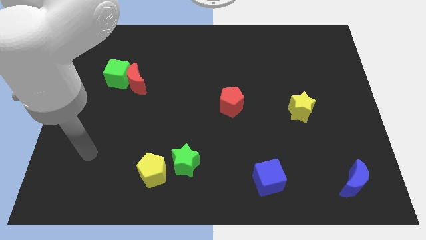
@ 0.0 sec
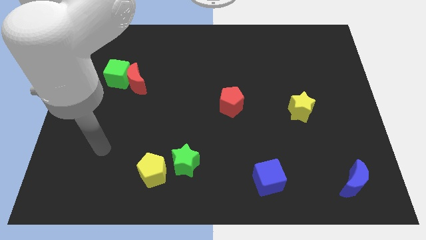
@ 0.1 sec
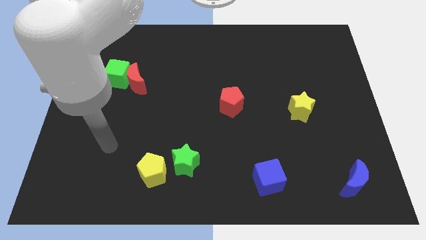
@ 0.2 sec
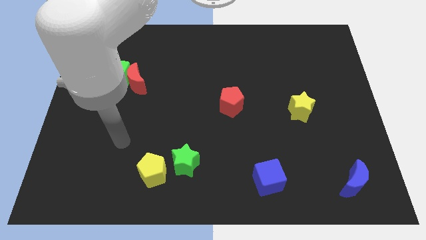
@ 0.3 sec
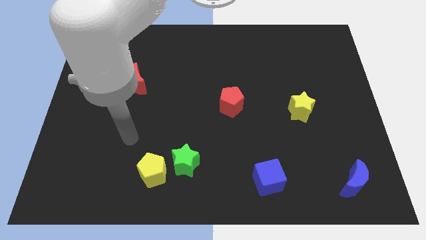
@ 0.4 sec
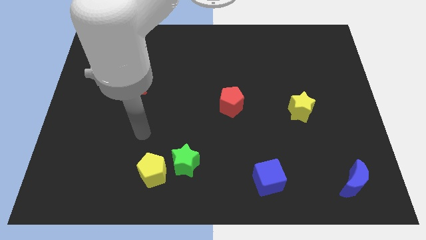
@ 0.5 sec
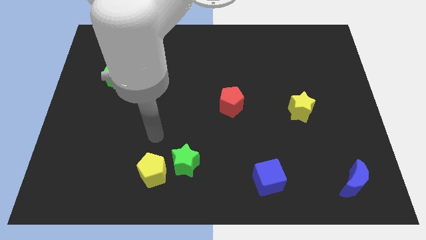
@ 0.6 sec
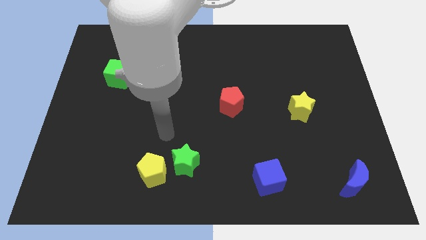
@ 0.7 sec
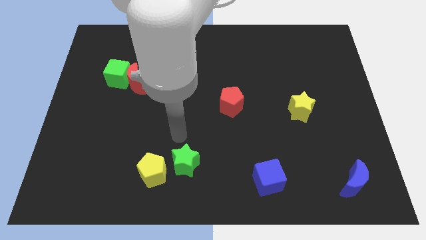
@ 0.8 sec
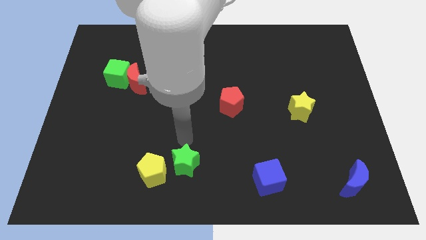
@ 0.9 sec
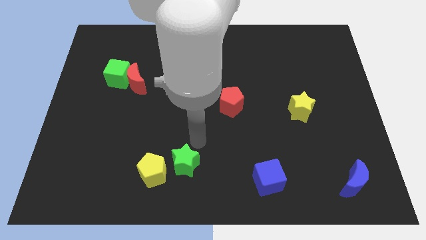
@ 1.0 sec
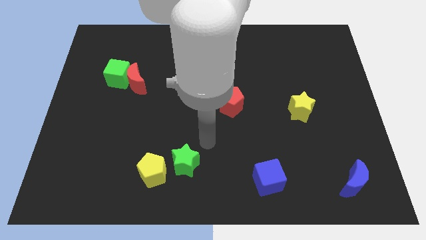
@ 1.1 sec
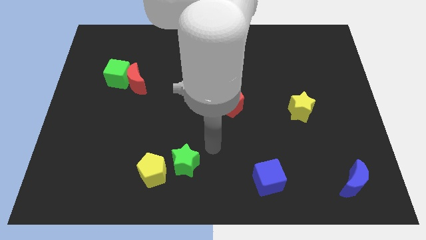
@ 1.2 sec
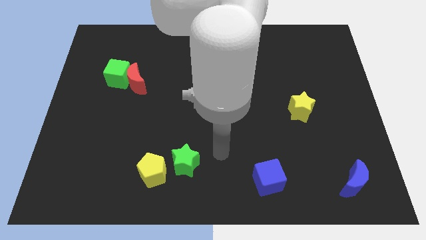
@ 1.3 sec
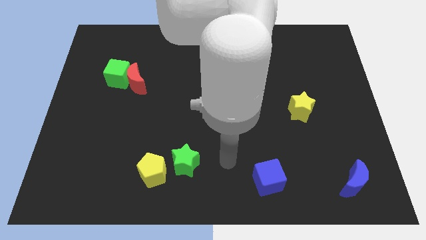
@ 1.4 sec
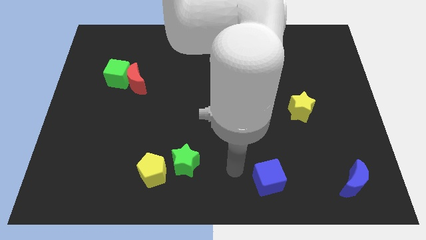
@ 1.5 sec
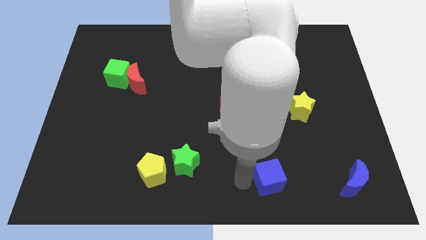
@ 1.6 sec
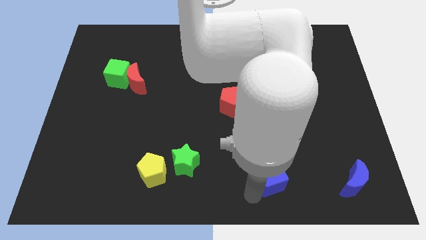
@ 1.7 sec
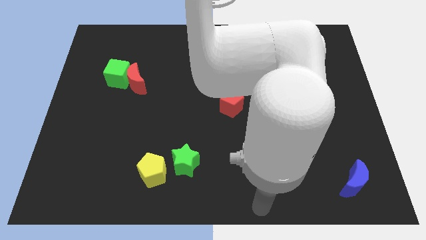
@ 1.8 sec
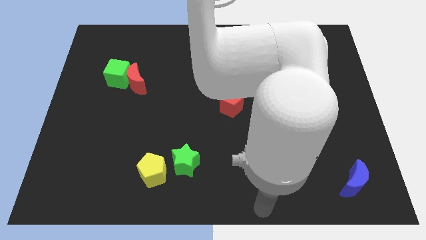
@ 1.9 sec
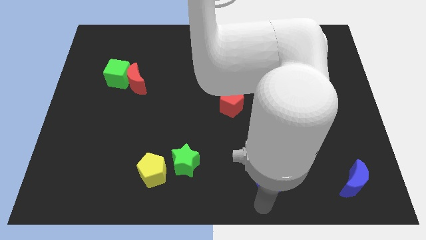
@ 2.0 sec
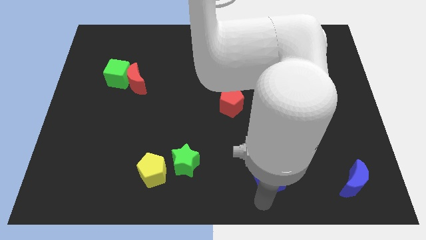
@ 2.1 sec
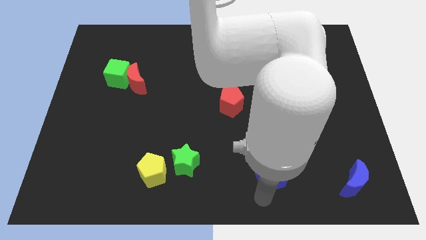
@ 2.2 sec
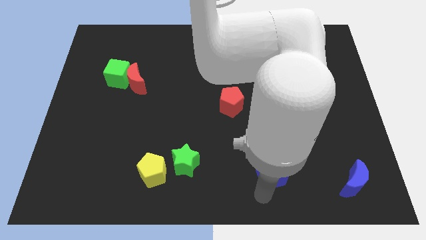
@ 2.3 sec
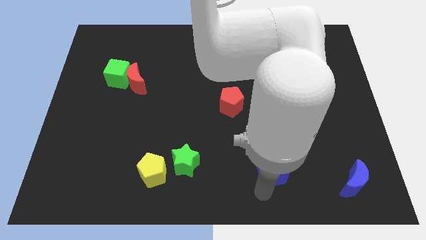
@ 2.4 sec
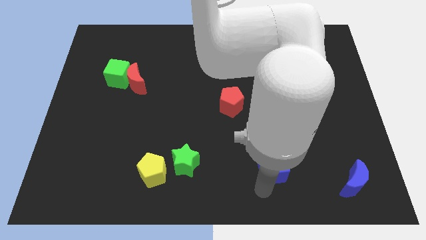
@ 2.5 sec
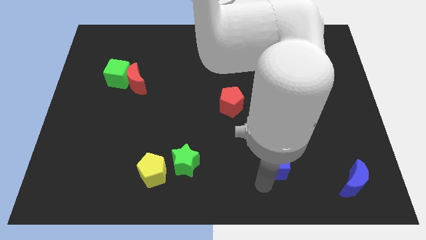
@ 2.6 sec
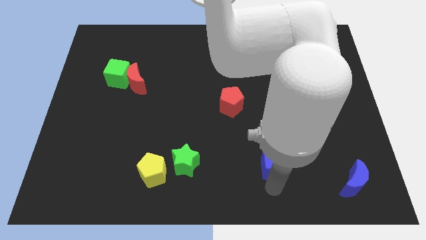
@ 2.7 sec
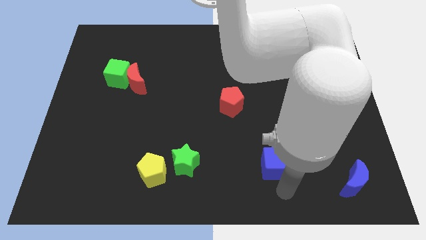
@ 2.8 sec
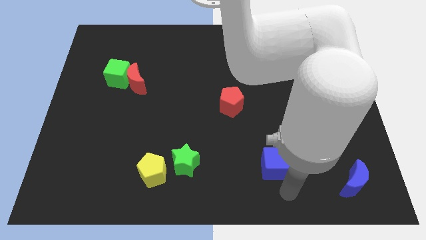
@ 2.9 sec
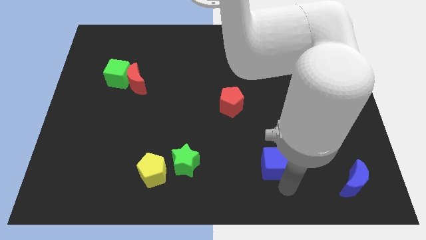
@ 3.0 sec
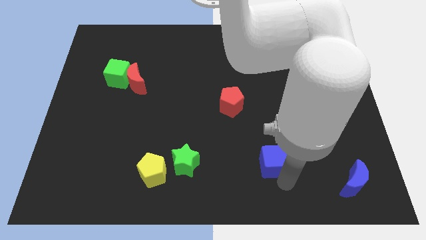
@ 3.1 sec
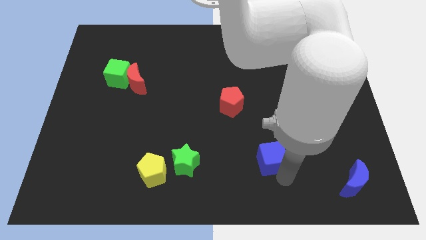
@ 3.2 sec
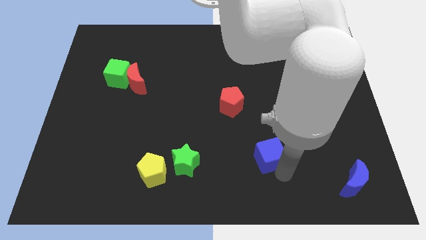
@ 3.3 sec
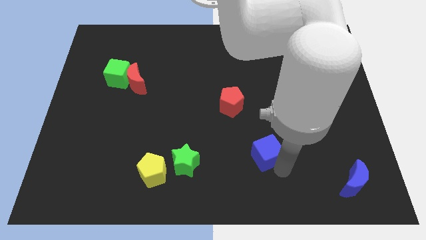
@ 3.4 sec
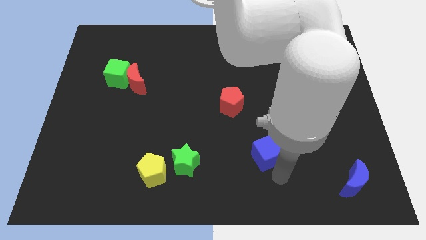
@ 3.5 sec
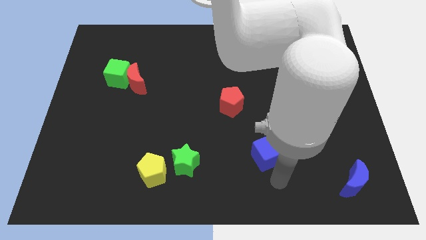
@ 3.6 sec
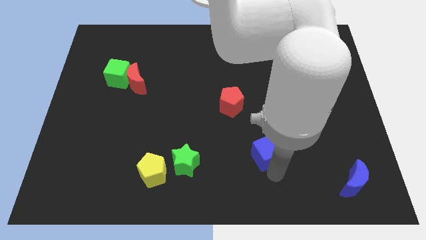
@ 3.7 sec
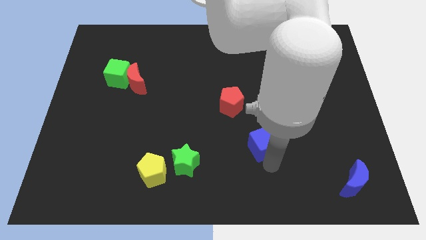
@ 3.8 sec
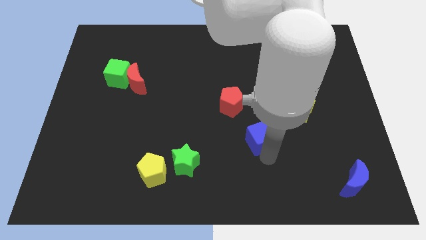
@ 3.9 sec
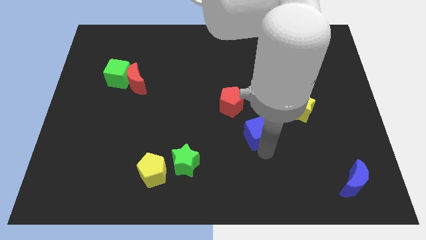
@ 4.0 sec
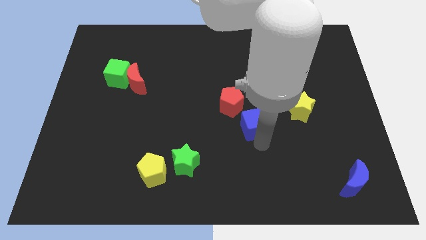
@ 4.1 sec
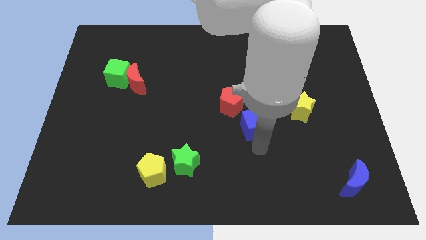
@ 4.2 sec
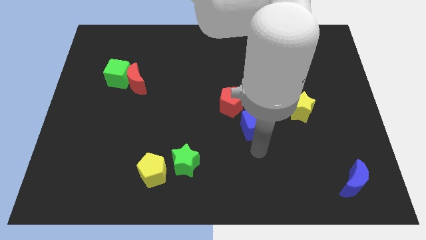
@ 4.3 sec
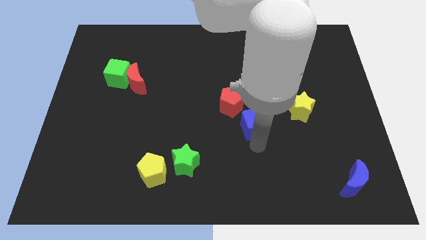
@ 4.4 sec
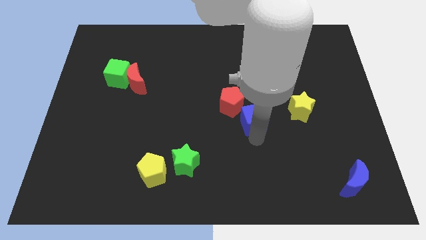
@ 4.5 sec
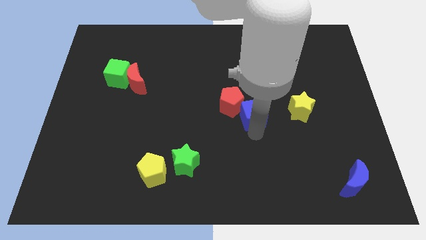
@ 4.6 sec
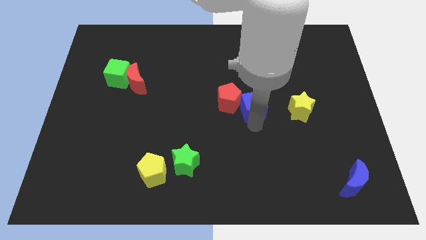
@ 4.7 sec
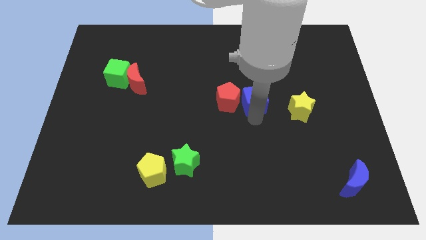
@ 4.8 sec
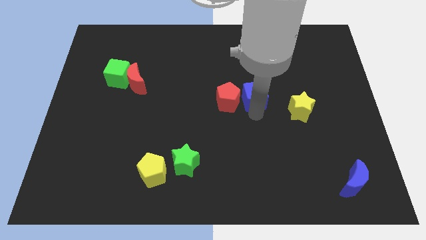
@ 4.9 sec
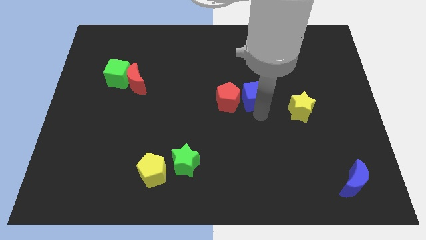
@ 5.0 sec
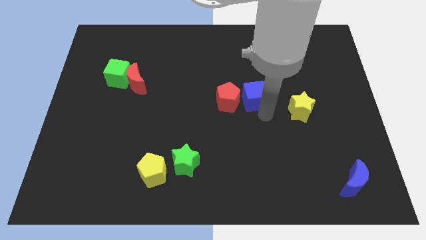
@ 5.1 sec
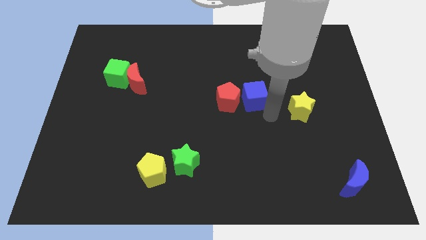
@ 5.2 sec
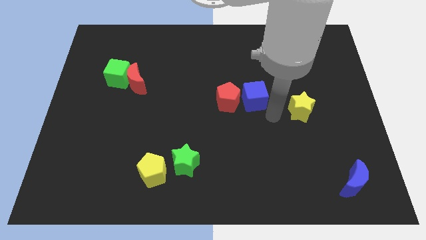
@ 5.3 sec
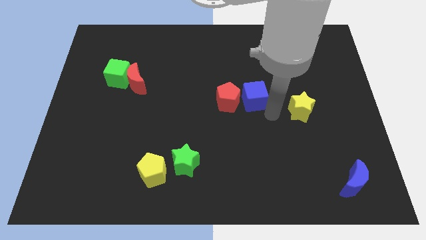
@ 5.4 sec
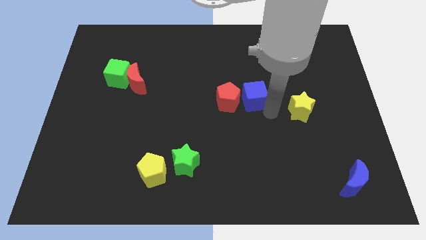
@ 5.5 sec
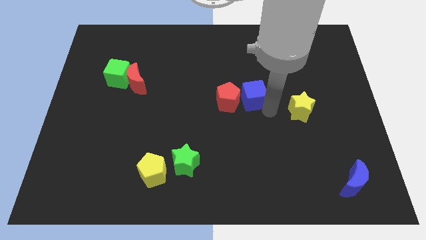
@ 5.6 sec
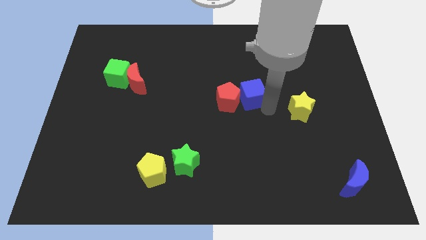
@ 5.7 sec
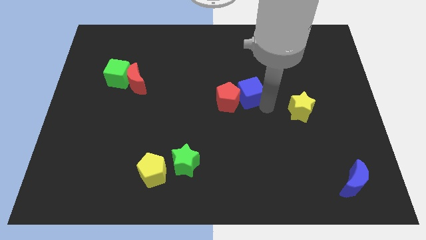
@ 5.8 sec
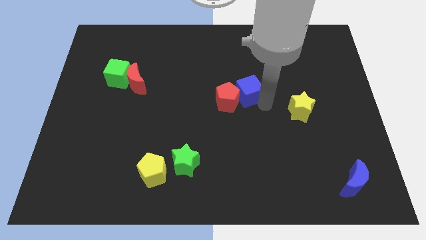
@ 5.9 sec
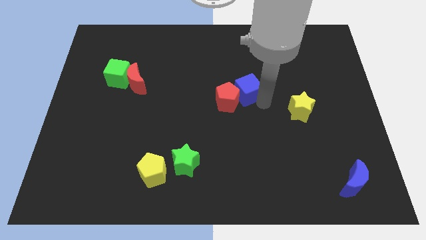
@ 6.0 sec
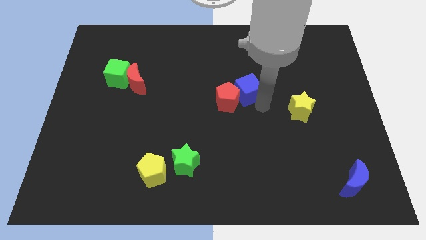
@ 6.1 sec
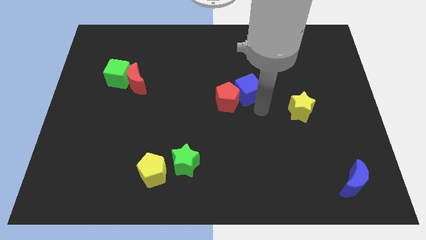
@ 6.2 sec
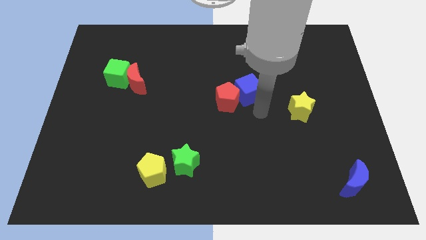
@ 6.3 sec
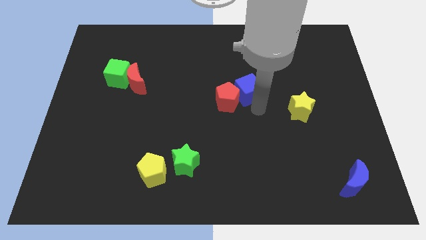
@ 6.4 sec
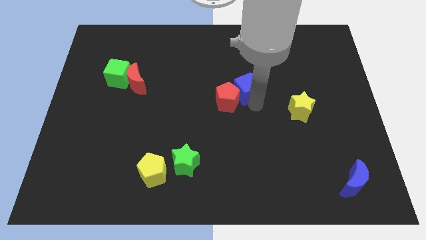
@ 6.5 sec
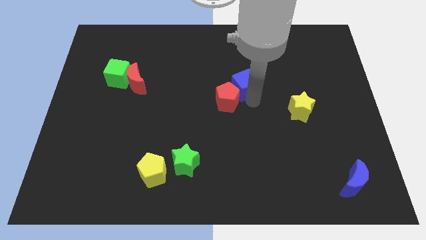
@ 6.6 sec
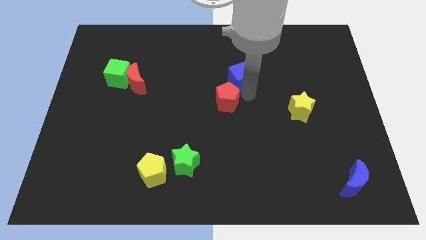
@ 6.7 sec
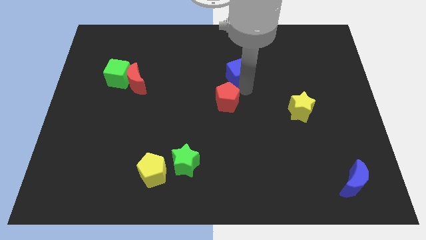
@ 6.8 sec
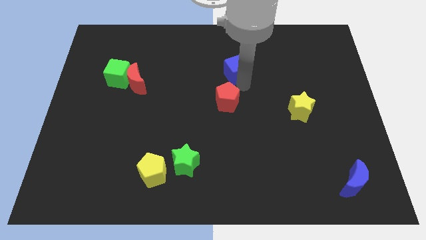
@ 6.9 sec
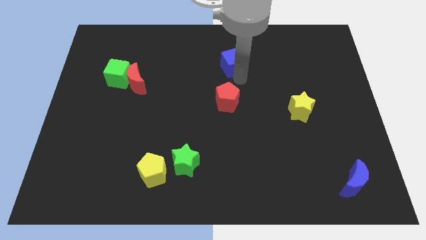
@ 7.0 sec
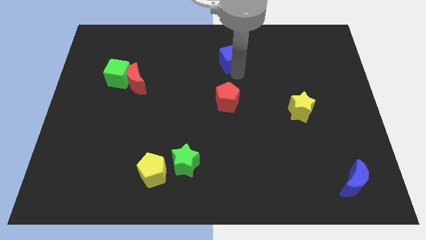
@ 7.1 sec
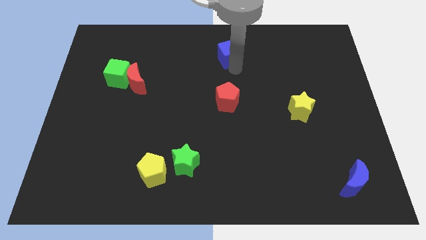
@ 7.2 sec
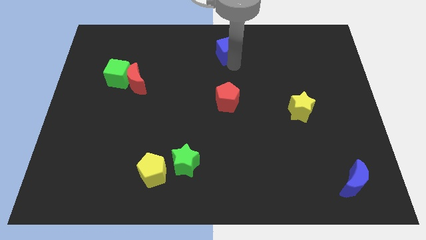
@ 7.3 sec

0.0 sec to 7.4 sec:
slide the blue cube to the top
